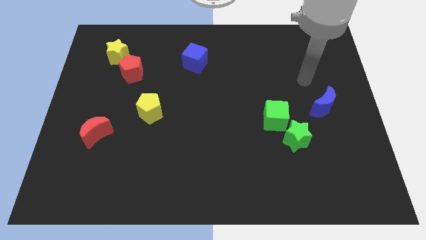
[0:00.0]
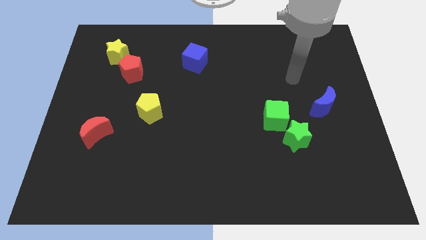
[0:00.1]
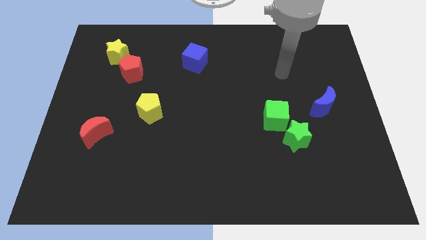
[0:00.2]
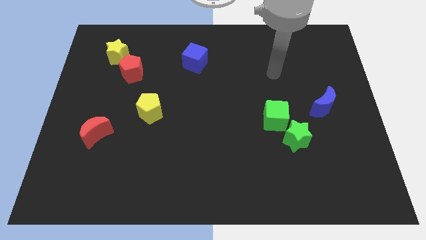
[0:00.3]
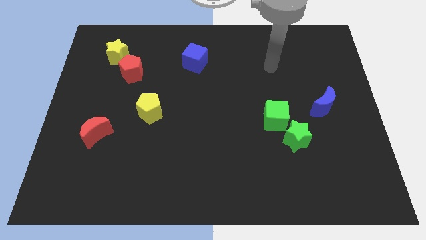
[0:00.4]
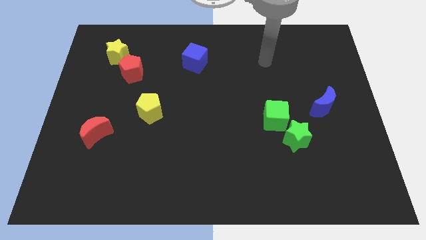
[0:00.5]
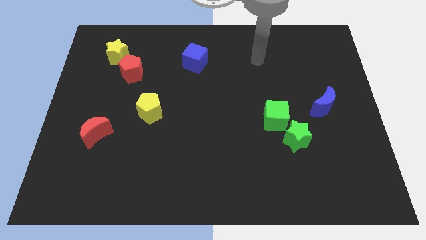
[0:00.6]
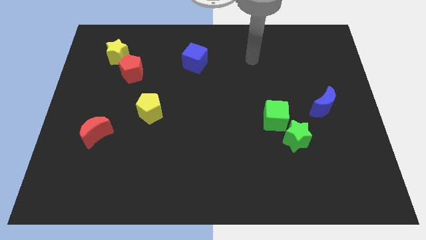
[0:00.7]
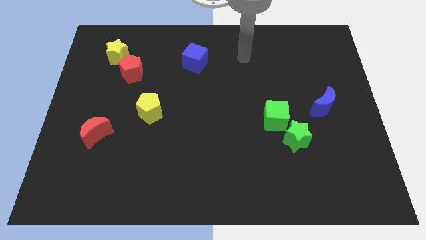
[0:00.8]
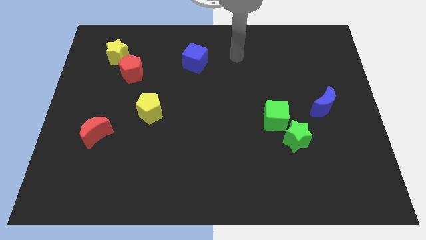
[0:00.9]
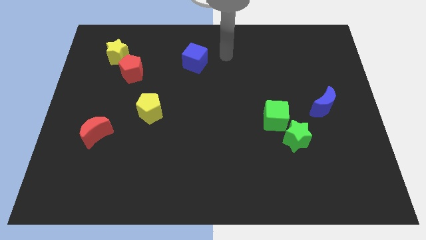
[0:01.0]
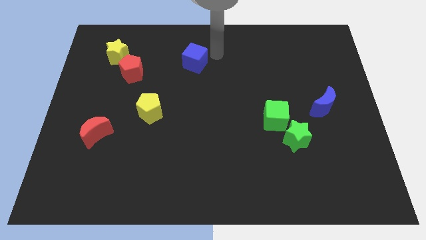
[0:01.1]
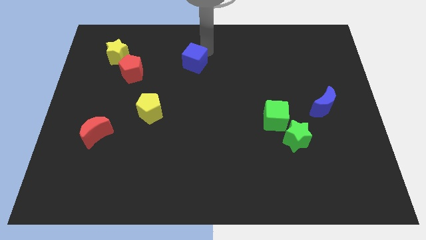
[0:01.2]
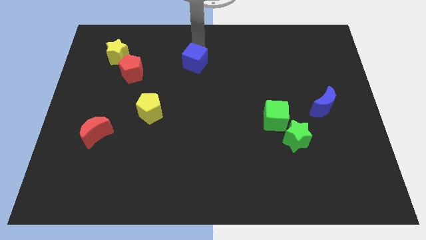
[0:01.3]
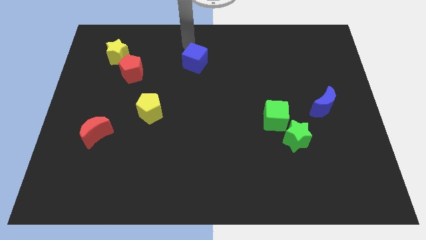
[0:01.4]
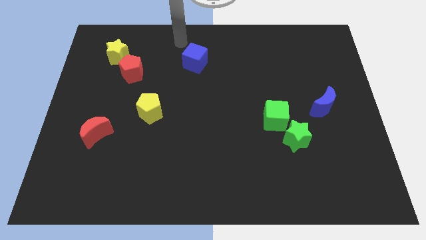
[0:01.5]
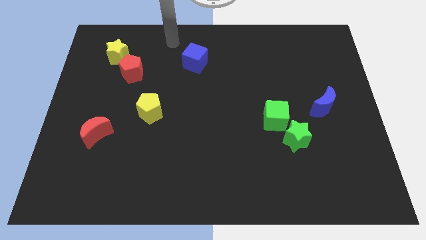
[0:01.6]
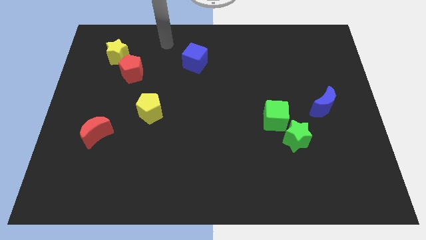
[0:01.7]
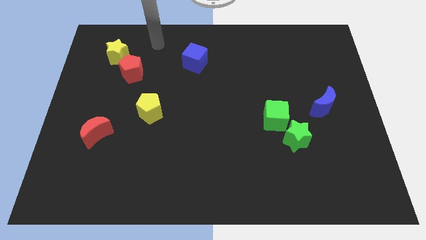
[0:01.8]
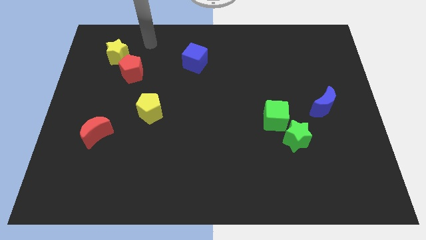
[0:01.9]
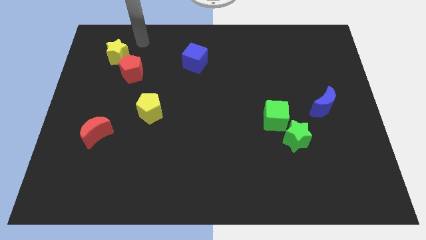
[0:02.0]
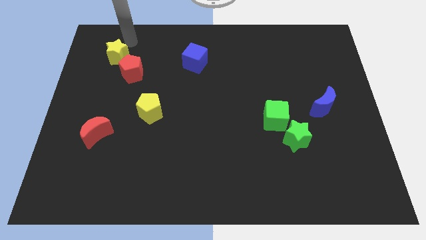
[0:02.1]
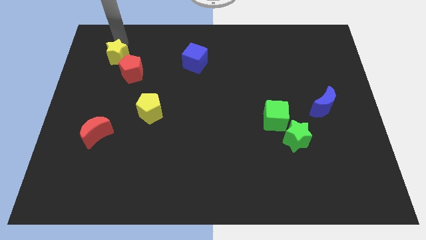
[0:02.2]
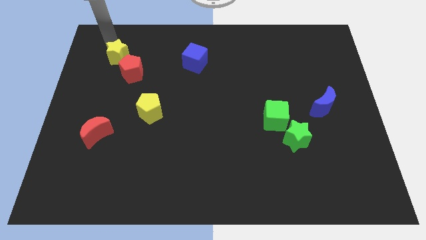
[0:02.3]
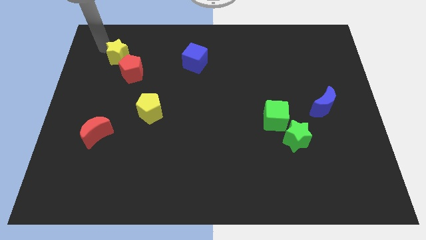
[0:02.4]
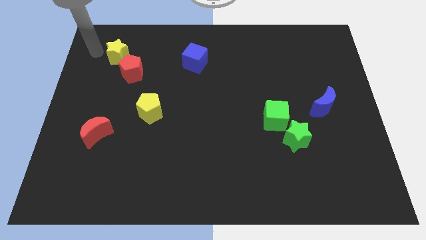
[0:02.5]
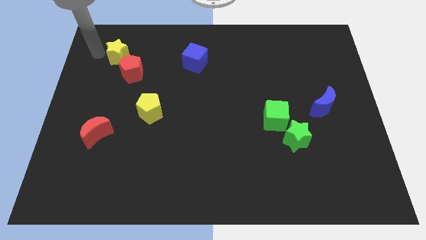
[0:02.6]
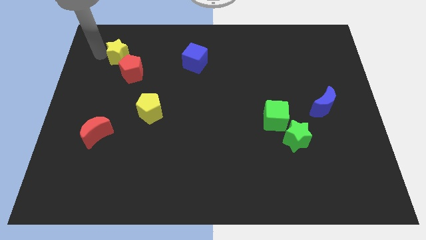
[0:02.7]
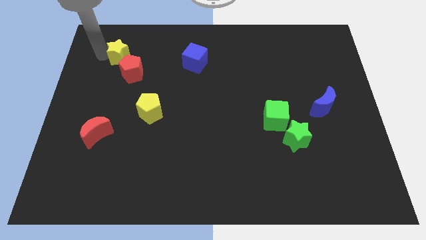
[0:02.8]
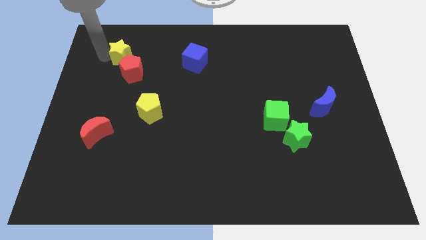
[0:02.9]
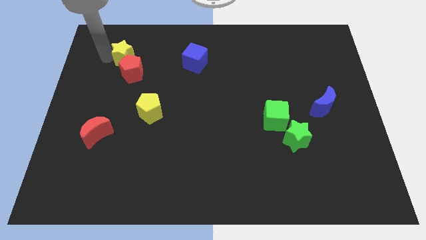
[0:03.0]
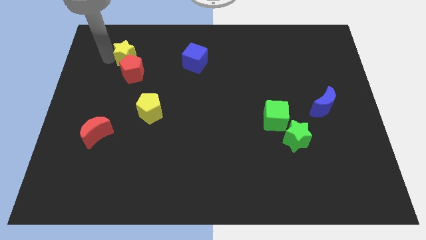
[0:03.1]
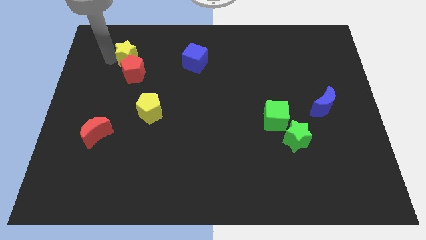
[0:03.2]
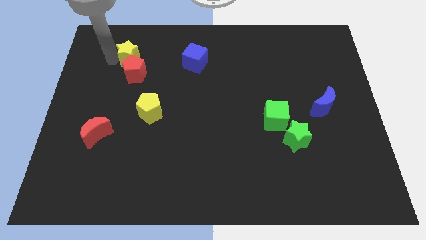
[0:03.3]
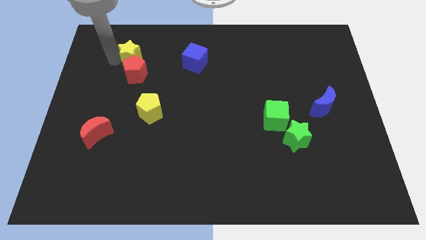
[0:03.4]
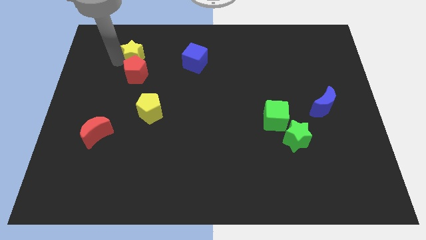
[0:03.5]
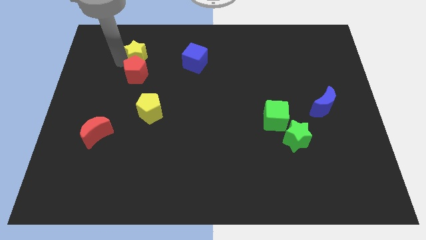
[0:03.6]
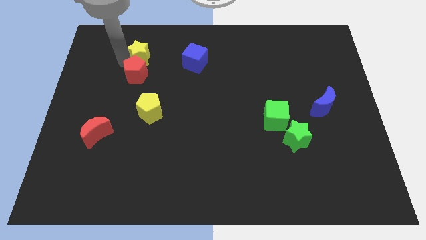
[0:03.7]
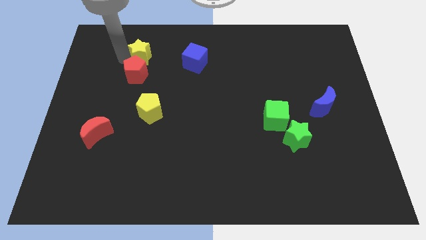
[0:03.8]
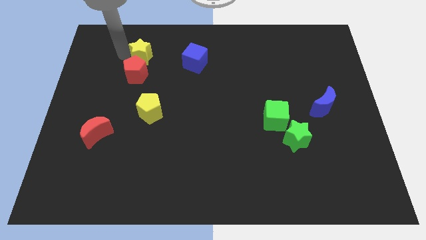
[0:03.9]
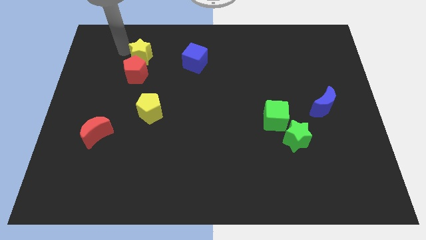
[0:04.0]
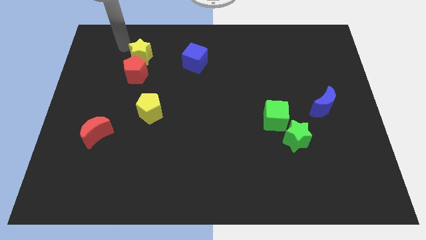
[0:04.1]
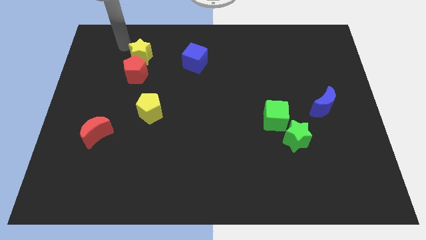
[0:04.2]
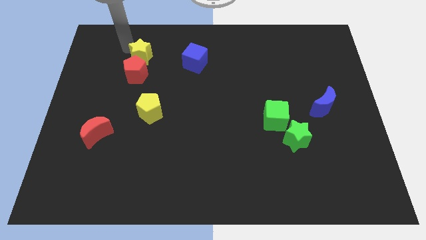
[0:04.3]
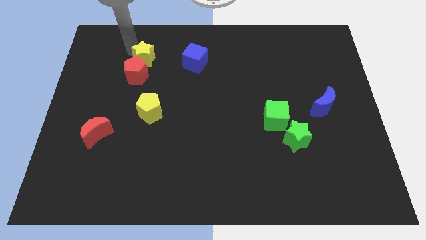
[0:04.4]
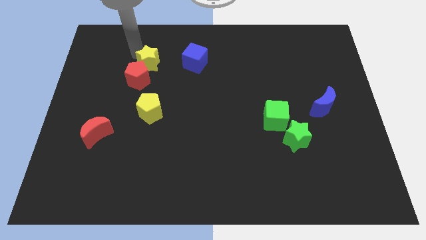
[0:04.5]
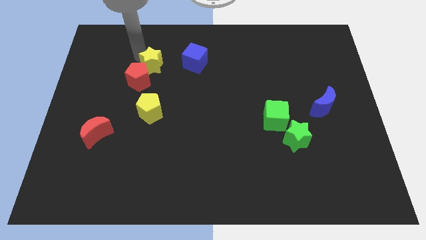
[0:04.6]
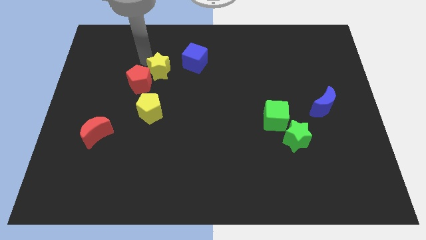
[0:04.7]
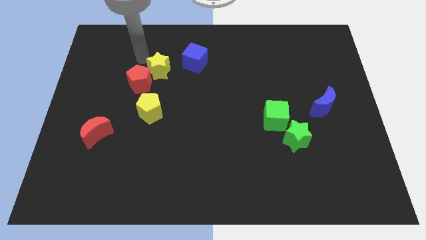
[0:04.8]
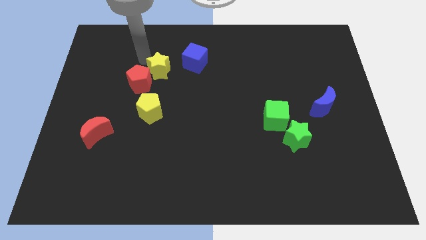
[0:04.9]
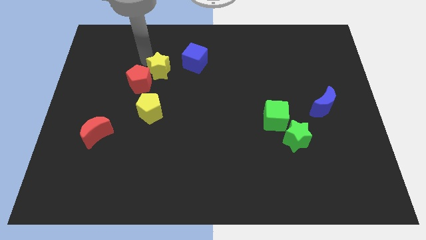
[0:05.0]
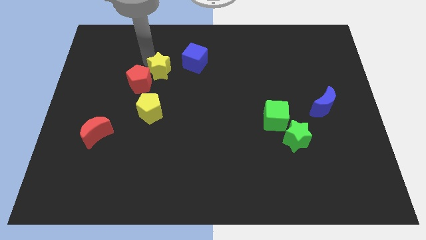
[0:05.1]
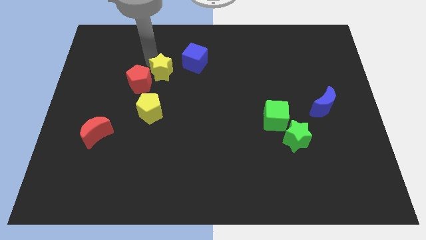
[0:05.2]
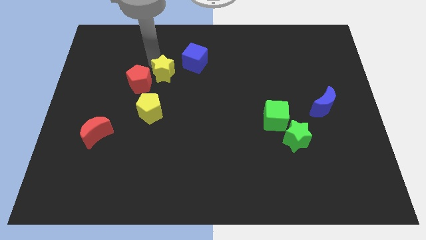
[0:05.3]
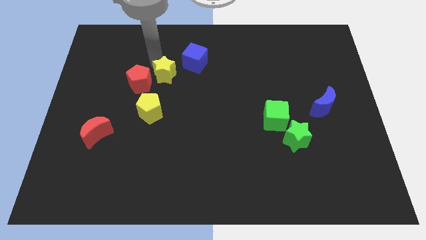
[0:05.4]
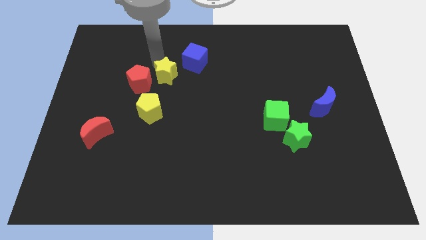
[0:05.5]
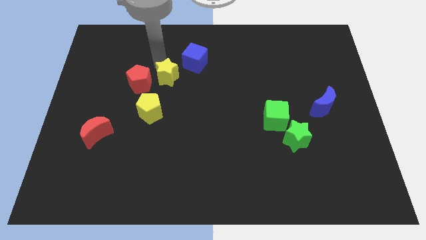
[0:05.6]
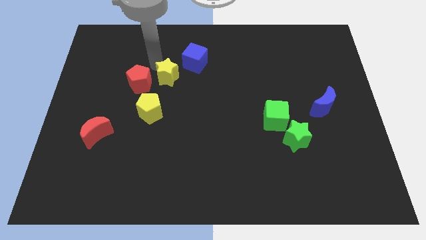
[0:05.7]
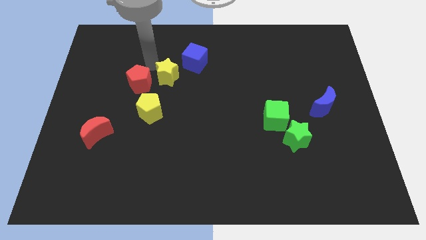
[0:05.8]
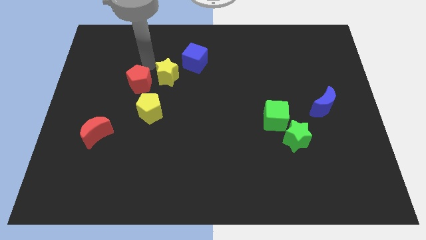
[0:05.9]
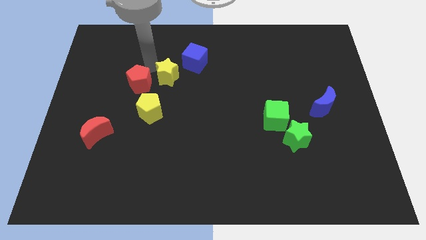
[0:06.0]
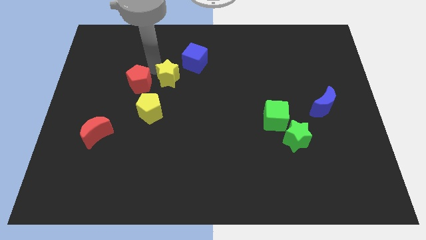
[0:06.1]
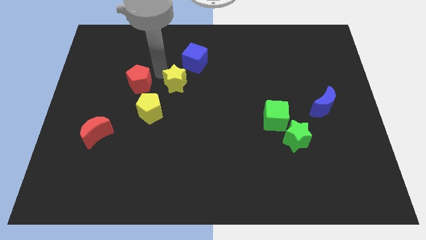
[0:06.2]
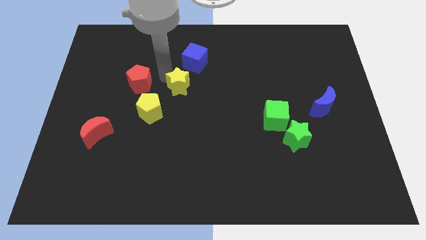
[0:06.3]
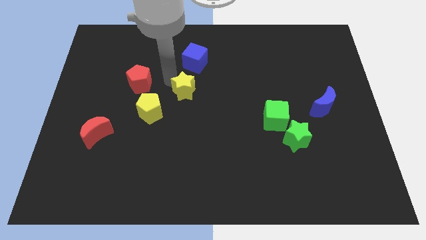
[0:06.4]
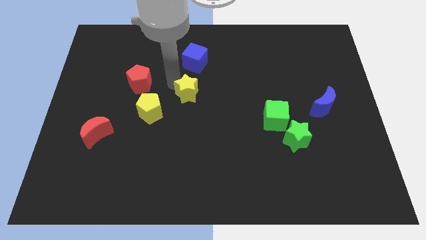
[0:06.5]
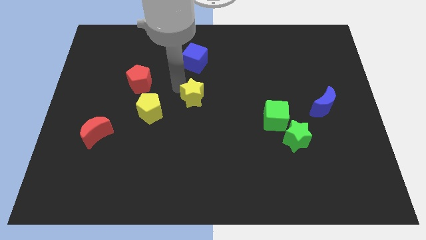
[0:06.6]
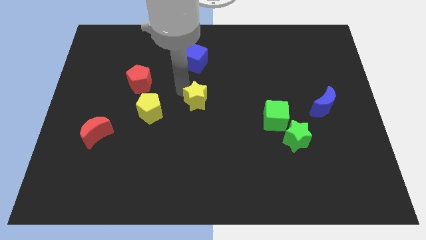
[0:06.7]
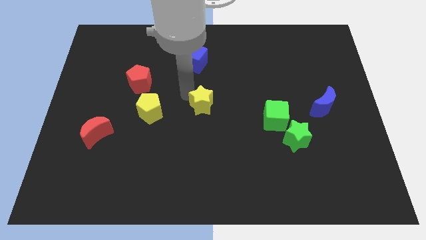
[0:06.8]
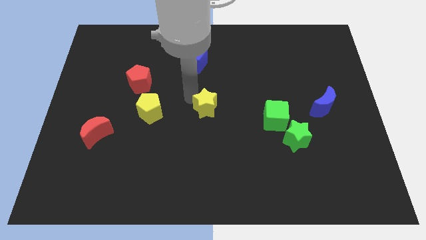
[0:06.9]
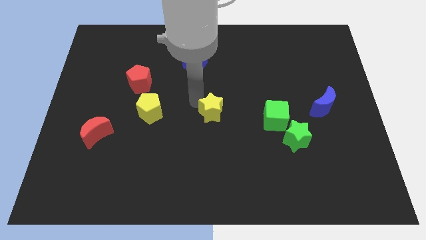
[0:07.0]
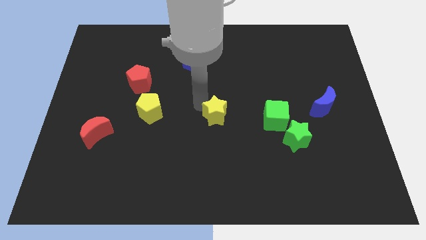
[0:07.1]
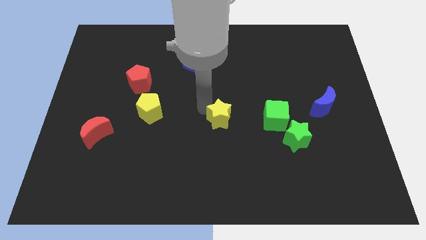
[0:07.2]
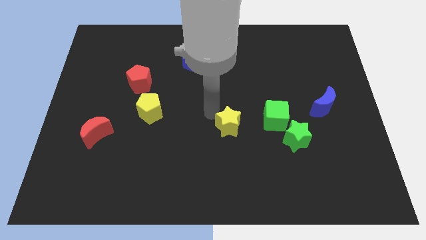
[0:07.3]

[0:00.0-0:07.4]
slide the yellow star just left of the green star
